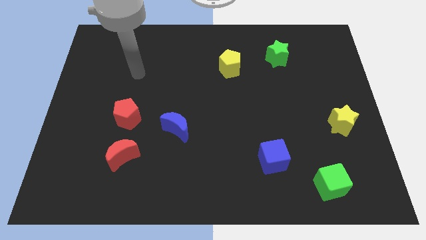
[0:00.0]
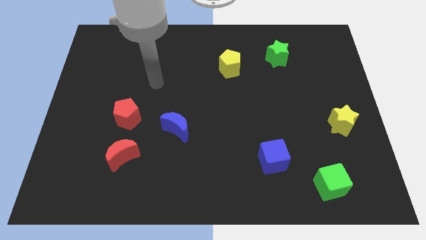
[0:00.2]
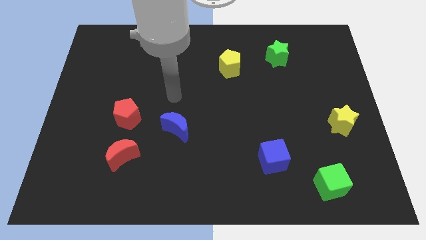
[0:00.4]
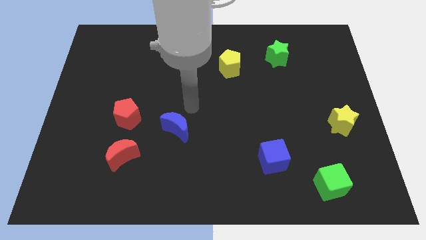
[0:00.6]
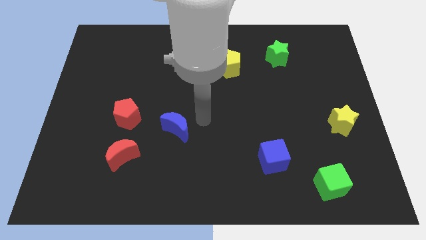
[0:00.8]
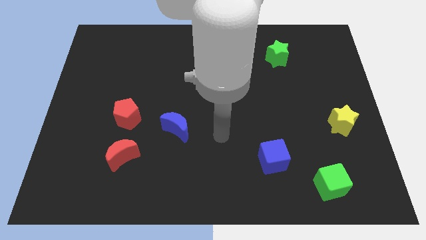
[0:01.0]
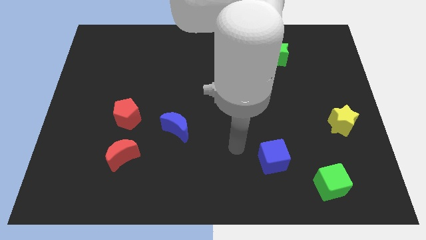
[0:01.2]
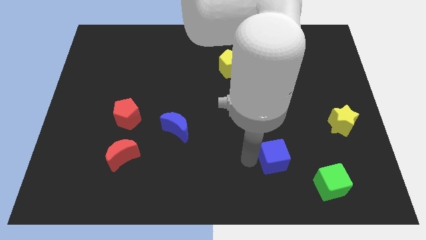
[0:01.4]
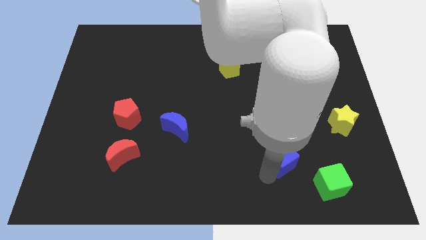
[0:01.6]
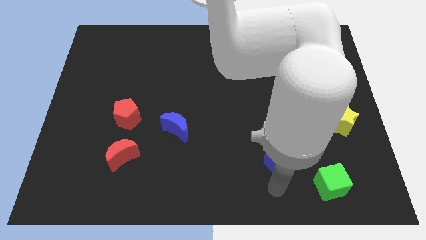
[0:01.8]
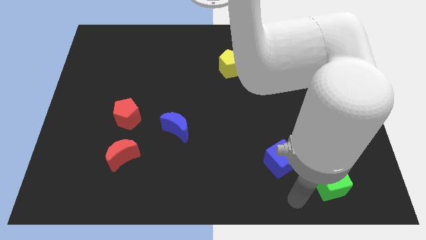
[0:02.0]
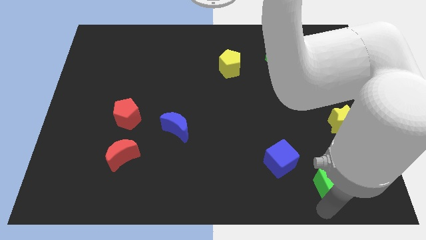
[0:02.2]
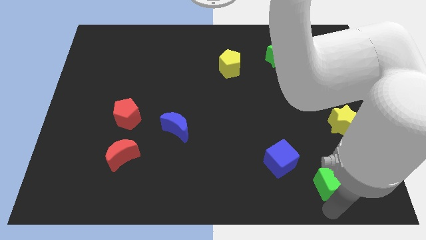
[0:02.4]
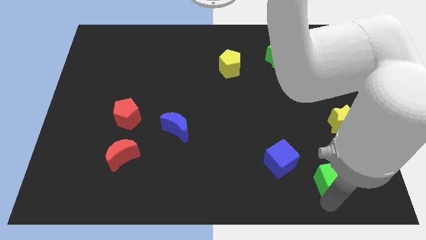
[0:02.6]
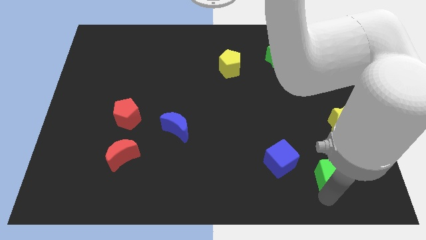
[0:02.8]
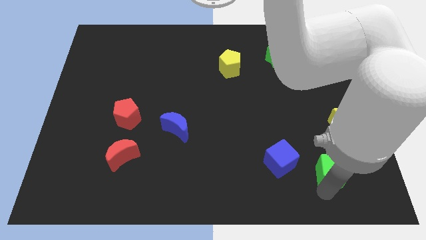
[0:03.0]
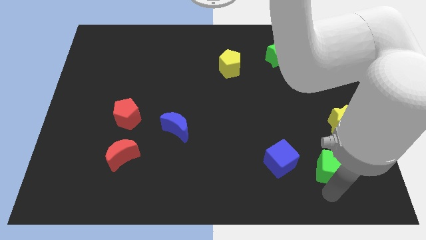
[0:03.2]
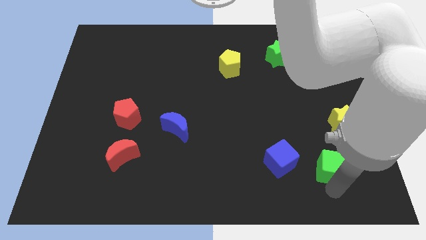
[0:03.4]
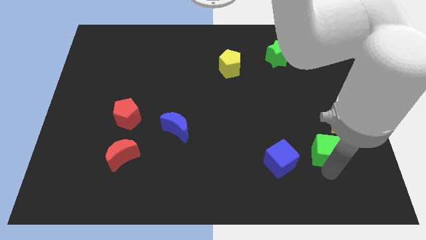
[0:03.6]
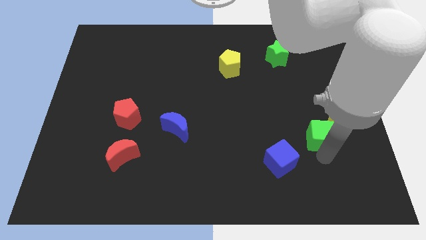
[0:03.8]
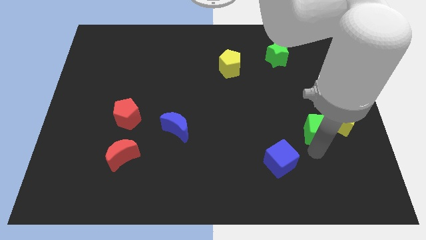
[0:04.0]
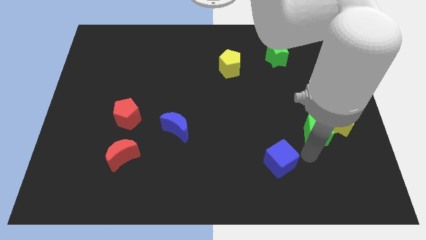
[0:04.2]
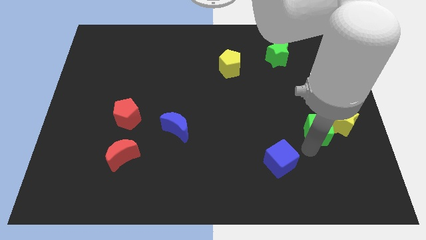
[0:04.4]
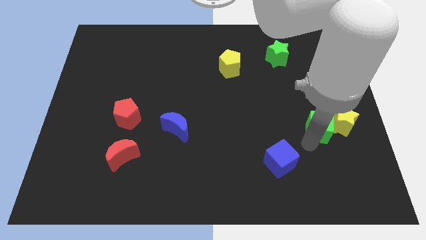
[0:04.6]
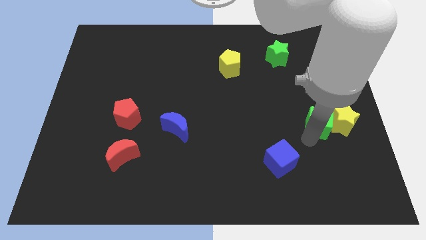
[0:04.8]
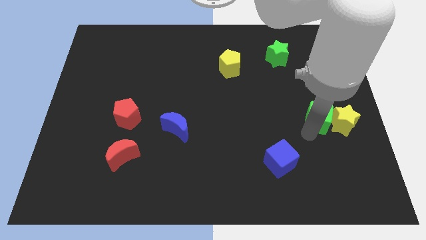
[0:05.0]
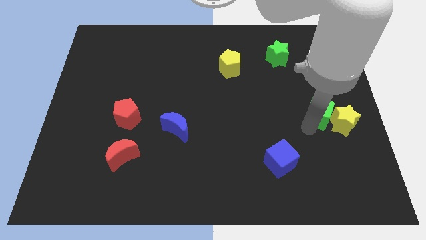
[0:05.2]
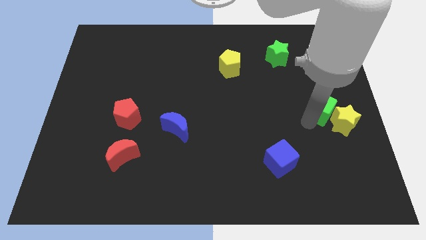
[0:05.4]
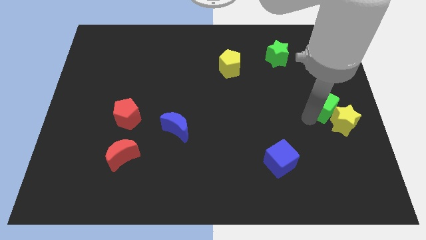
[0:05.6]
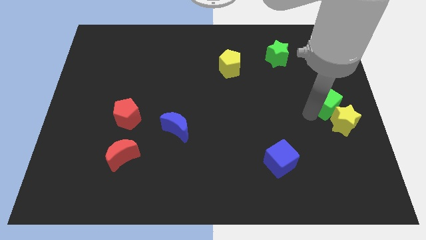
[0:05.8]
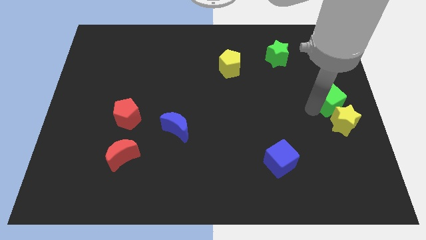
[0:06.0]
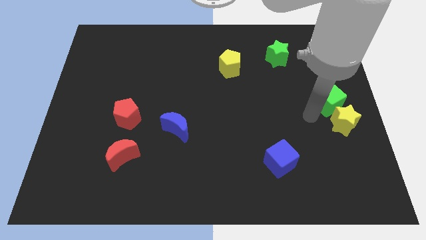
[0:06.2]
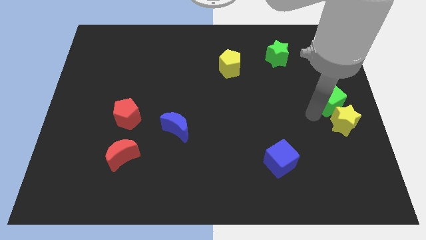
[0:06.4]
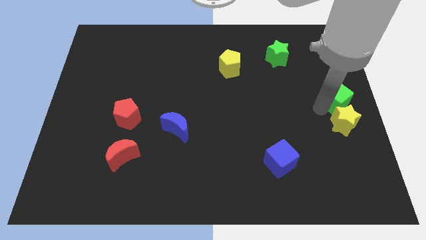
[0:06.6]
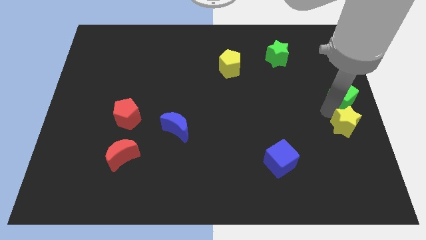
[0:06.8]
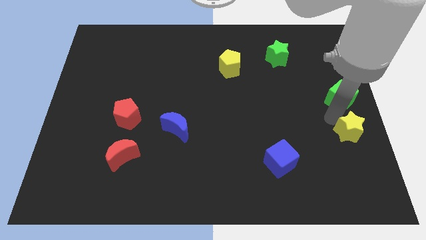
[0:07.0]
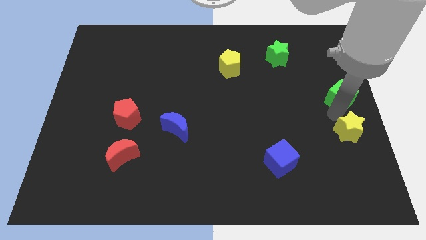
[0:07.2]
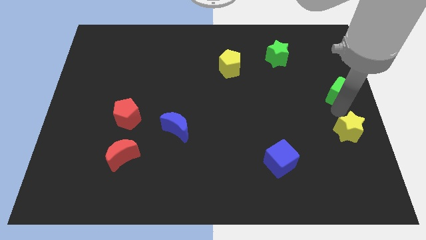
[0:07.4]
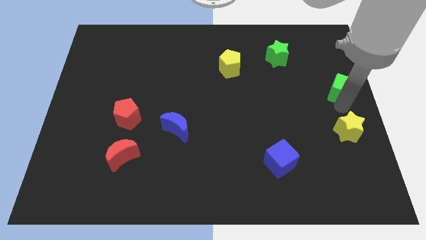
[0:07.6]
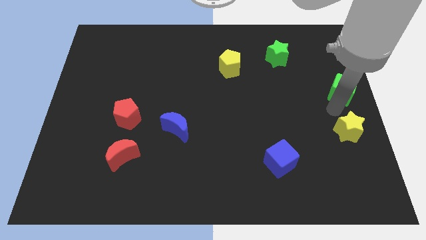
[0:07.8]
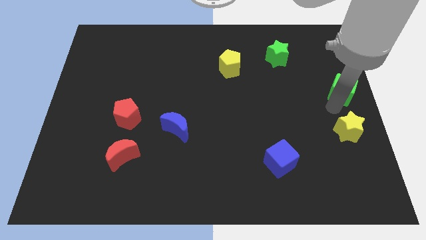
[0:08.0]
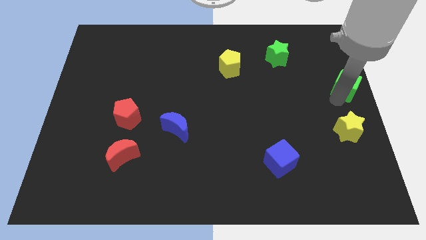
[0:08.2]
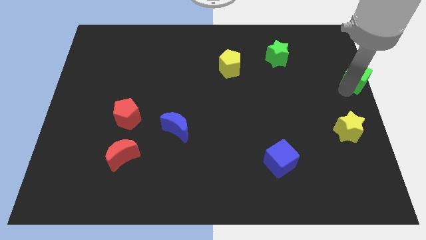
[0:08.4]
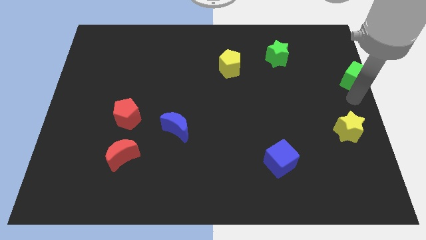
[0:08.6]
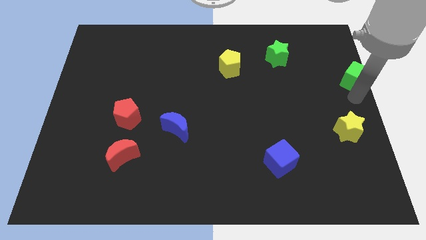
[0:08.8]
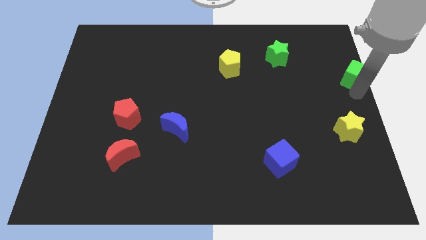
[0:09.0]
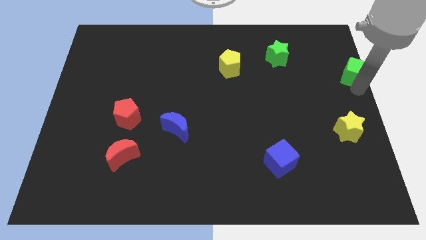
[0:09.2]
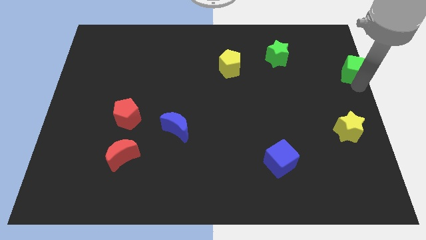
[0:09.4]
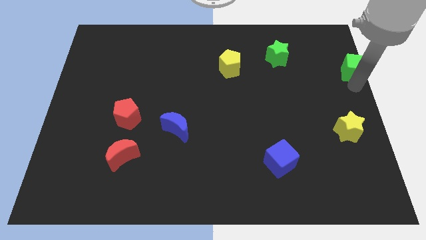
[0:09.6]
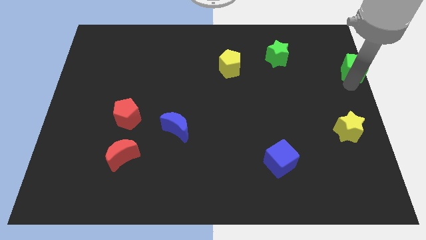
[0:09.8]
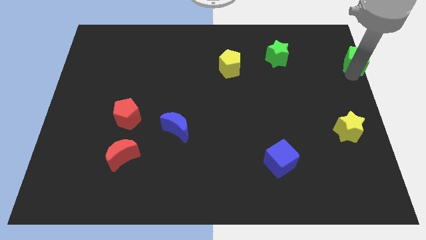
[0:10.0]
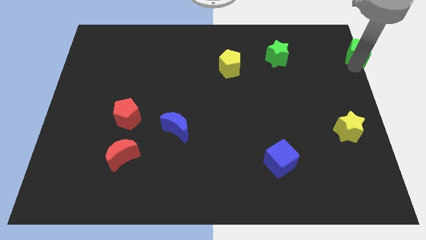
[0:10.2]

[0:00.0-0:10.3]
move the green cube to the upper right corner

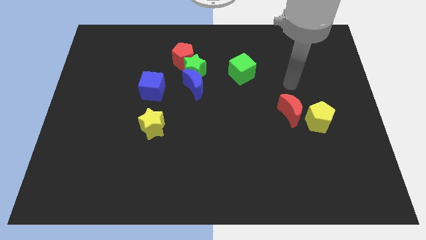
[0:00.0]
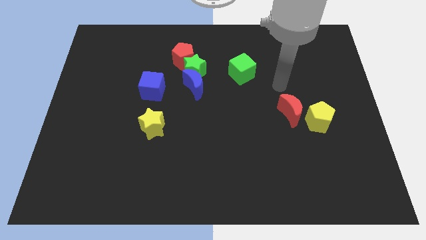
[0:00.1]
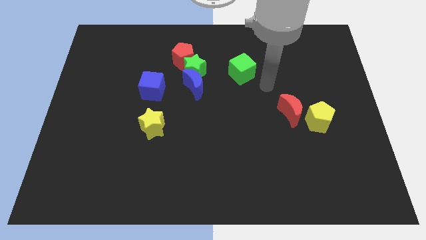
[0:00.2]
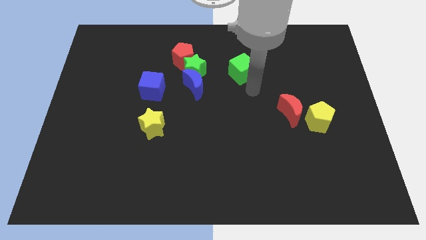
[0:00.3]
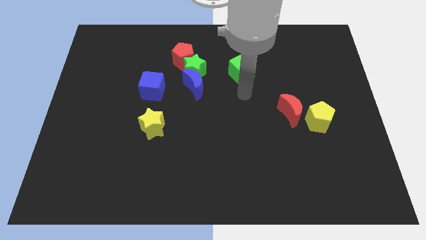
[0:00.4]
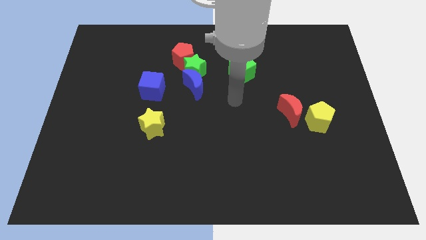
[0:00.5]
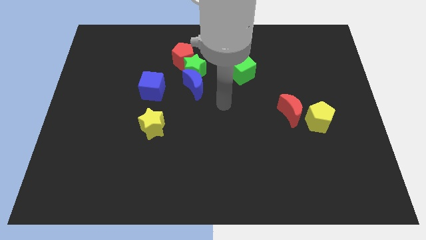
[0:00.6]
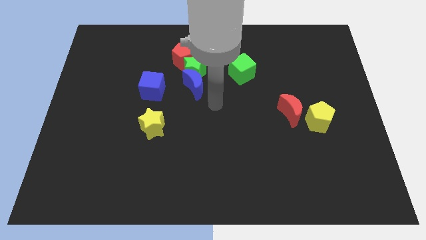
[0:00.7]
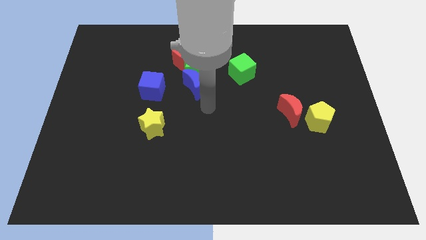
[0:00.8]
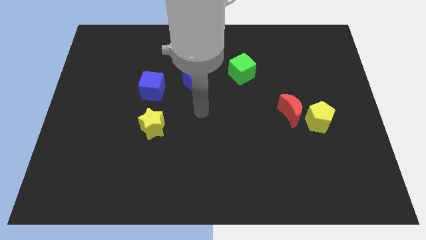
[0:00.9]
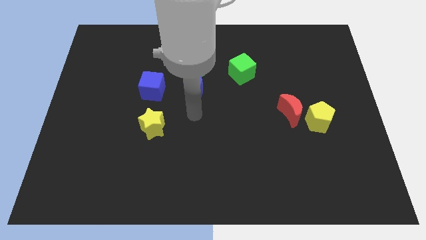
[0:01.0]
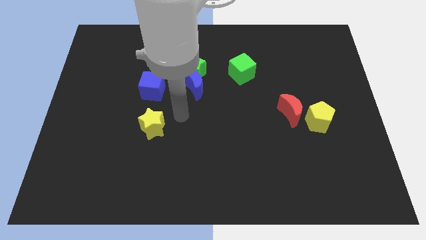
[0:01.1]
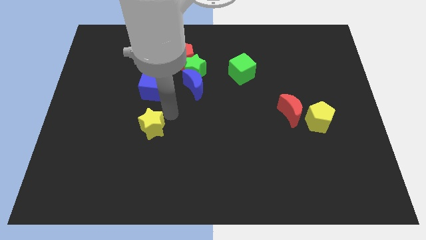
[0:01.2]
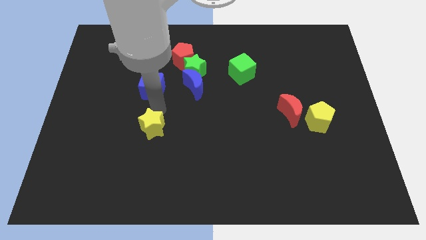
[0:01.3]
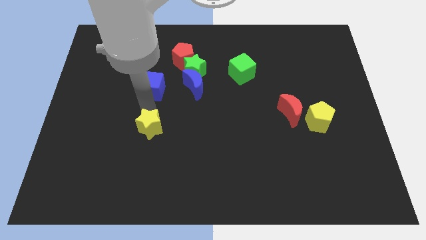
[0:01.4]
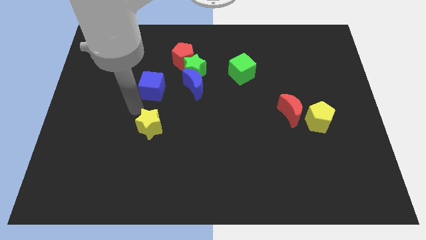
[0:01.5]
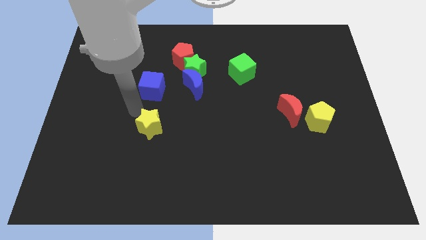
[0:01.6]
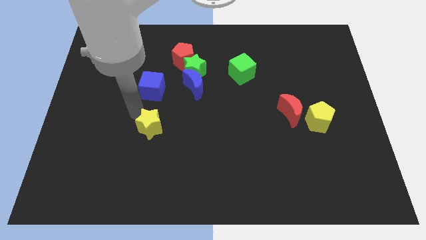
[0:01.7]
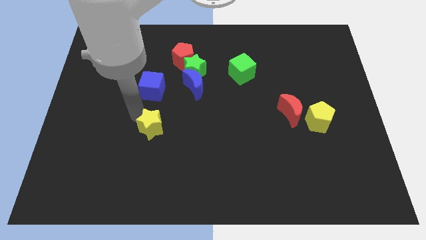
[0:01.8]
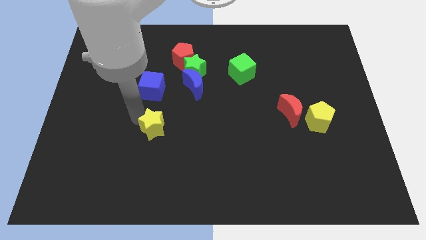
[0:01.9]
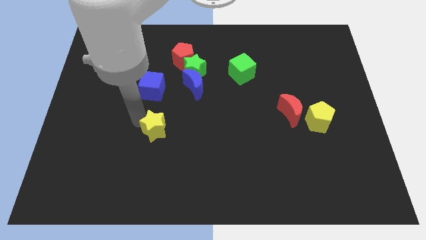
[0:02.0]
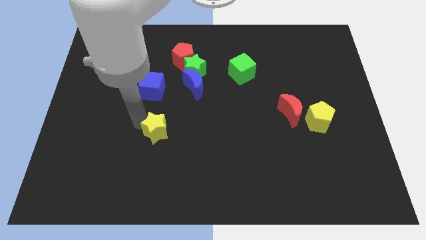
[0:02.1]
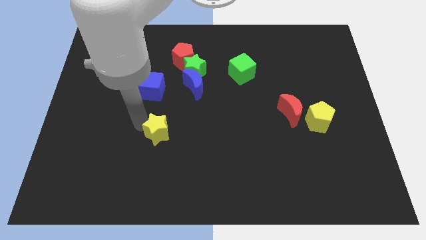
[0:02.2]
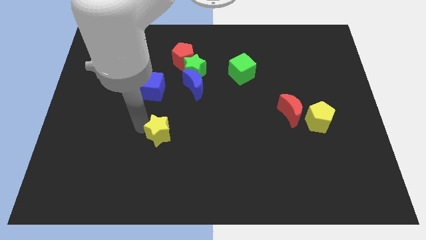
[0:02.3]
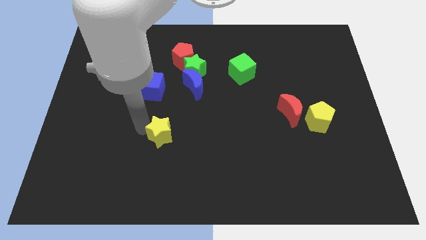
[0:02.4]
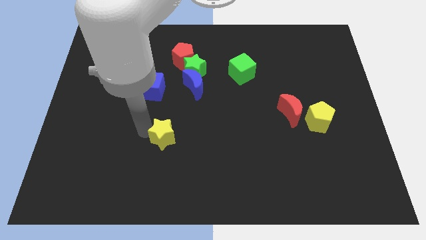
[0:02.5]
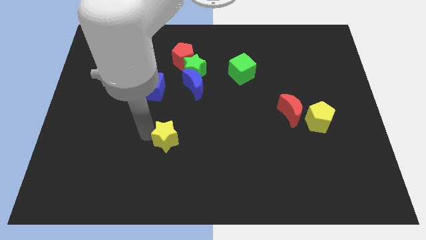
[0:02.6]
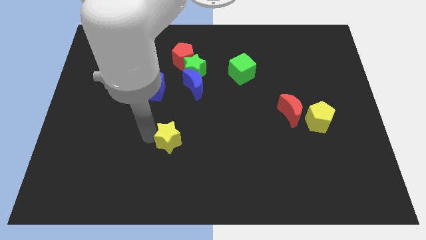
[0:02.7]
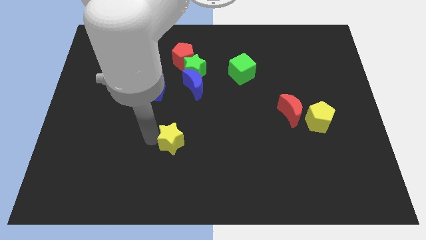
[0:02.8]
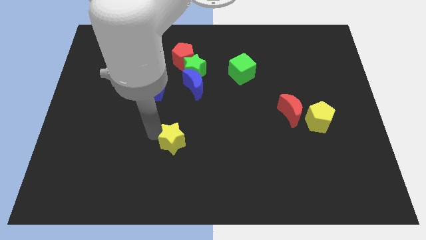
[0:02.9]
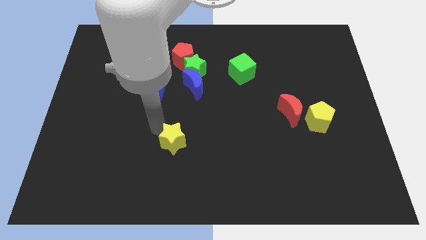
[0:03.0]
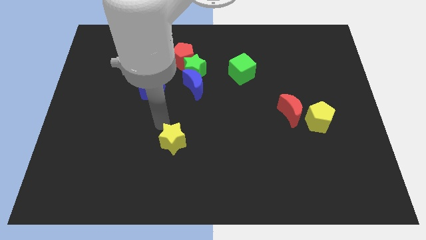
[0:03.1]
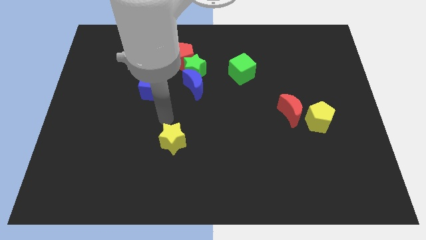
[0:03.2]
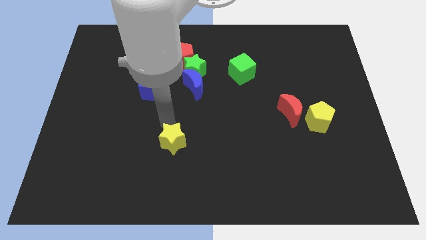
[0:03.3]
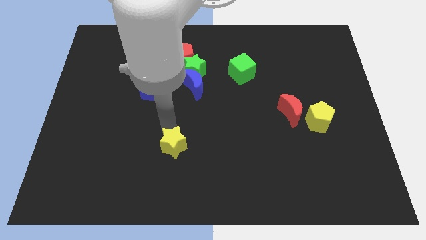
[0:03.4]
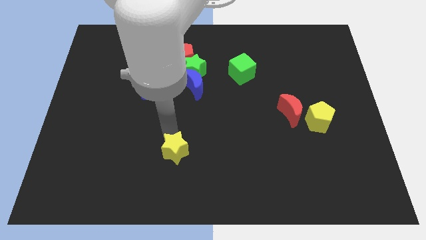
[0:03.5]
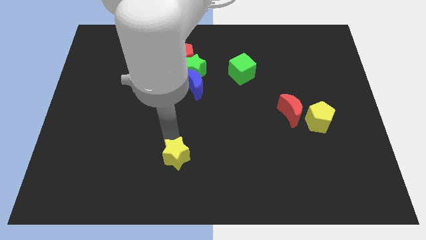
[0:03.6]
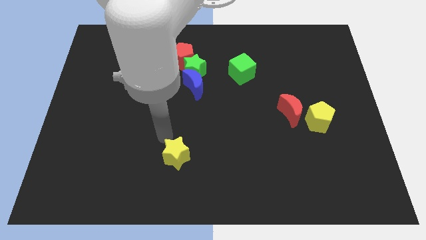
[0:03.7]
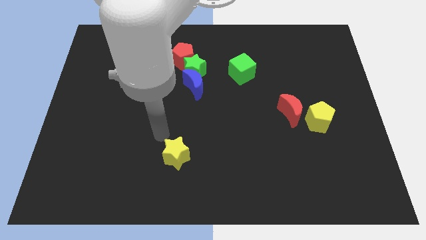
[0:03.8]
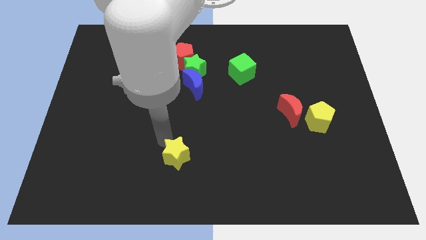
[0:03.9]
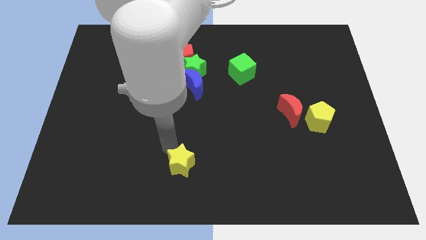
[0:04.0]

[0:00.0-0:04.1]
push the yellow star to the bottom side
